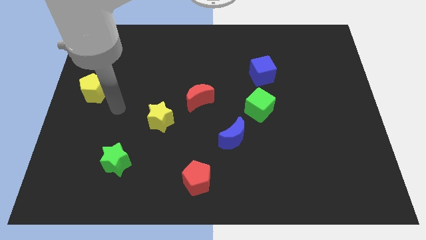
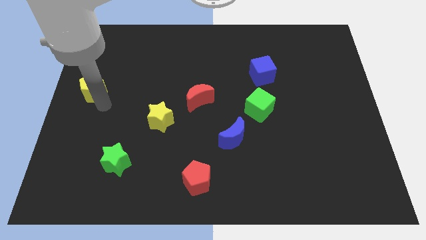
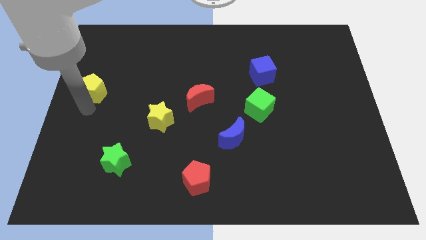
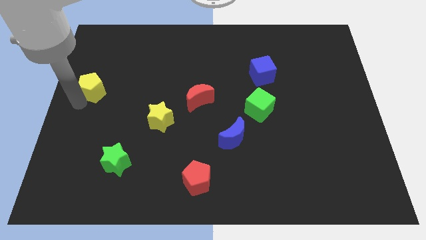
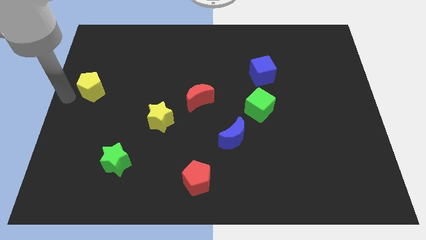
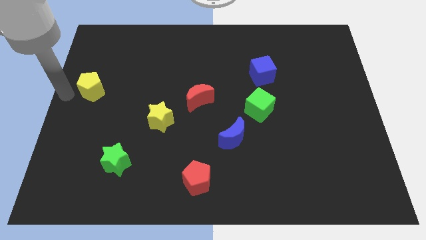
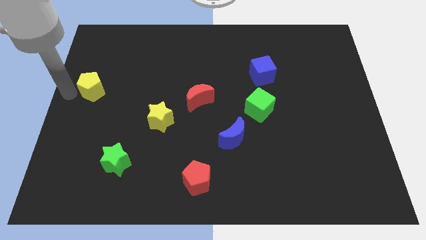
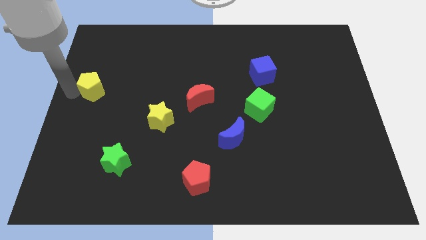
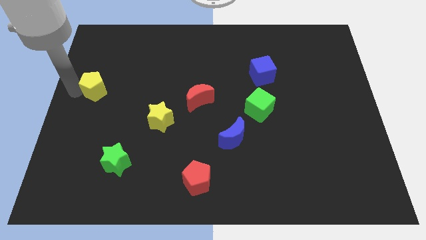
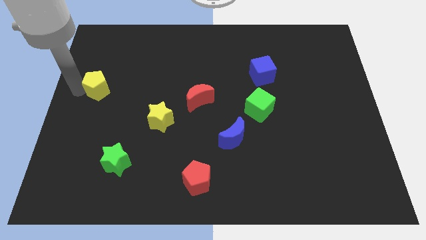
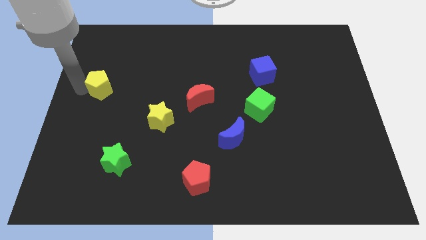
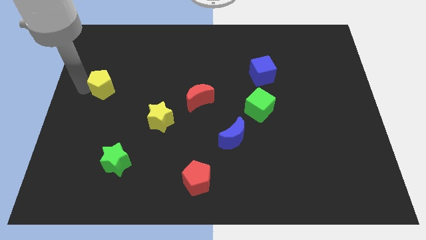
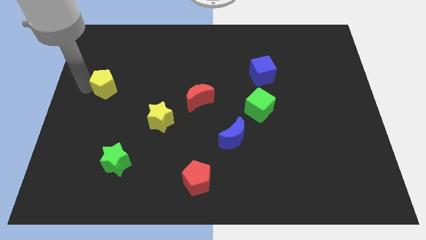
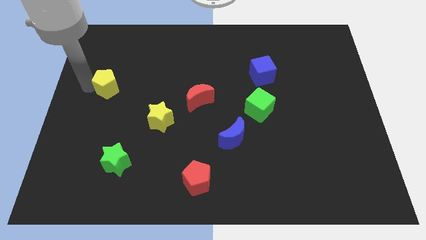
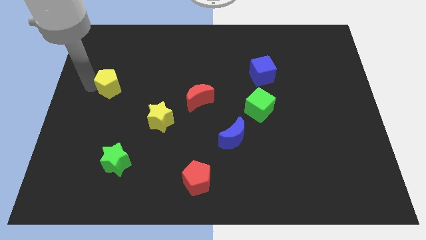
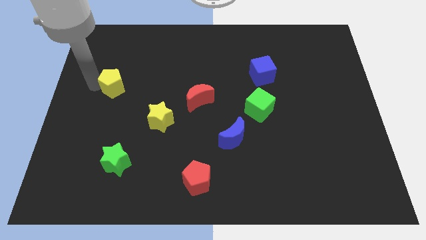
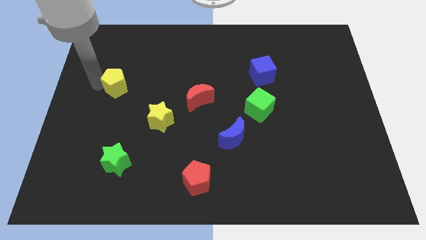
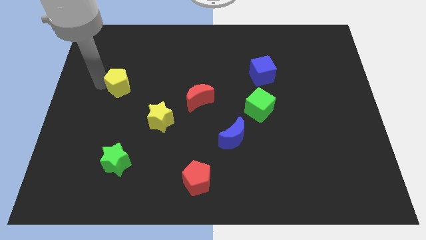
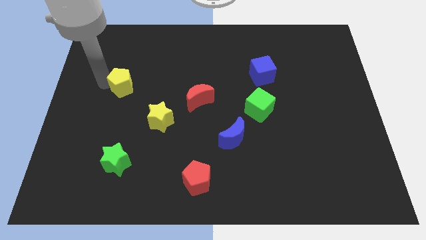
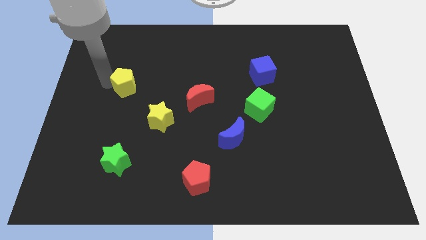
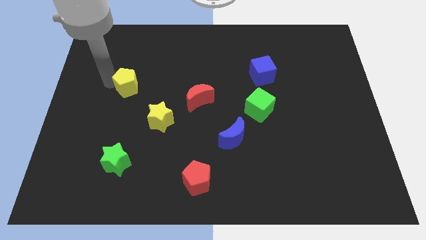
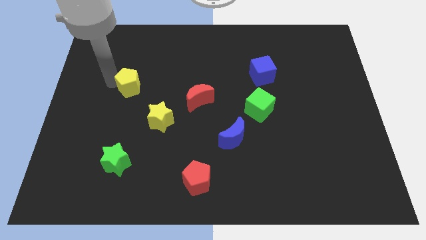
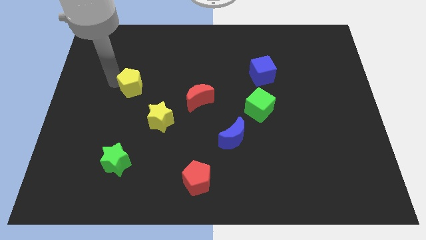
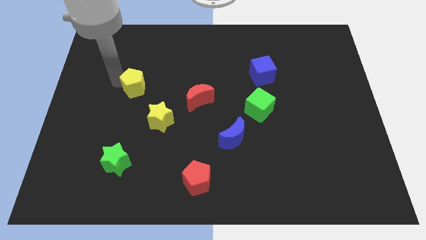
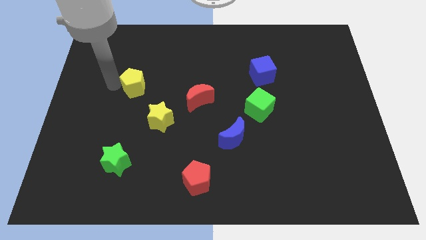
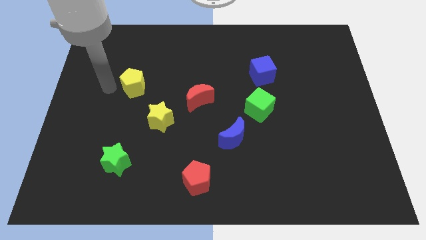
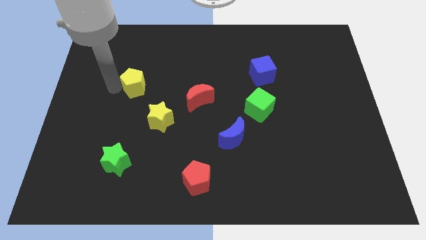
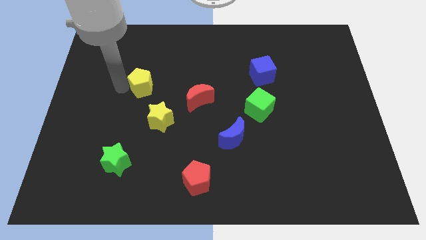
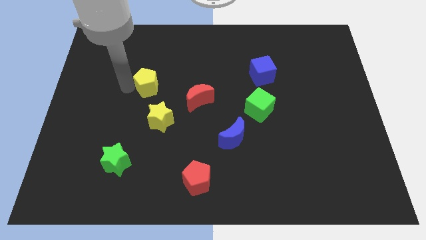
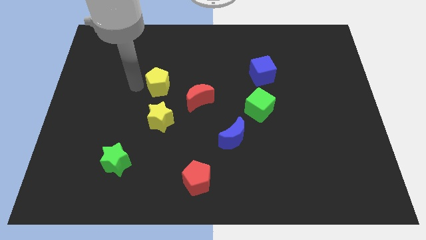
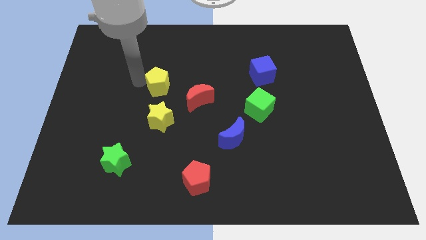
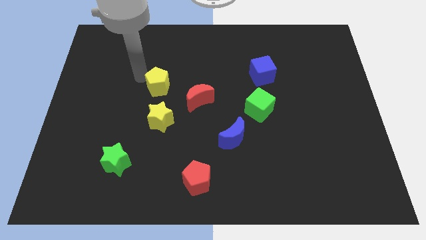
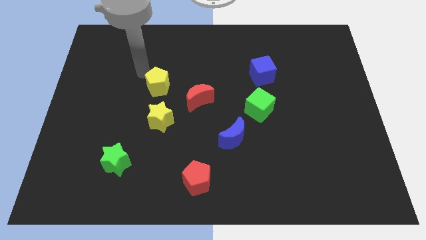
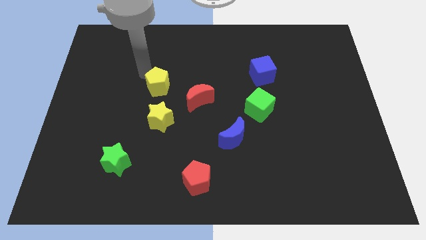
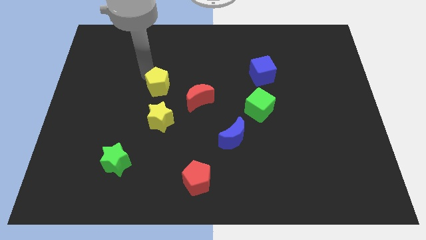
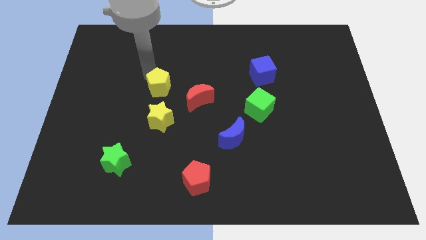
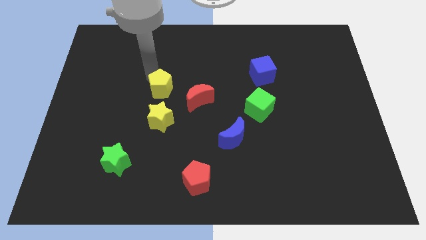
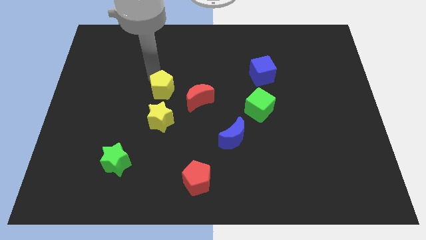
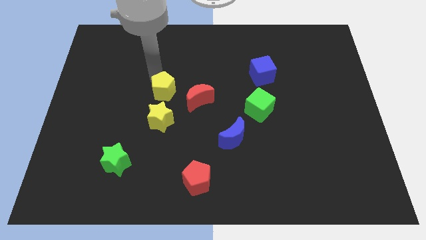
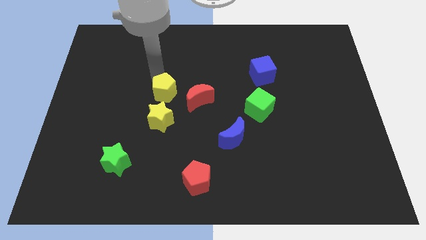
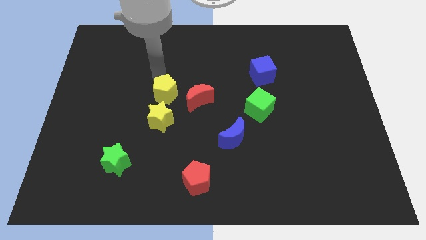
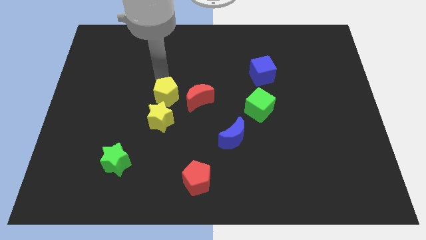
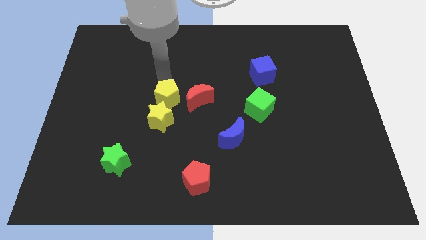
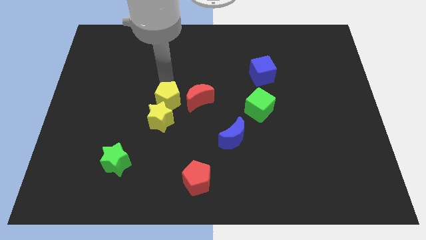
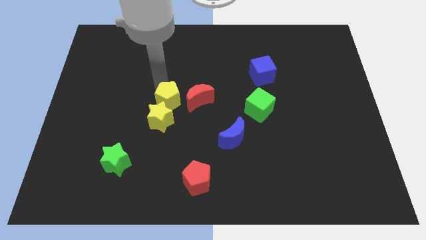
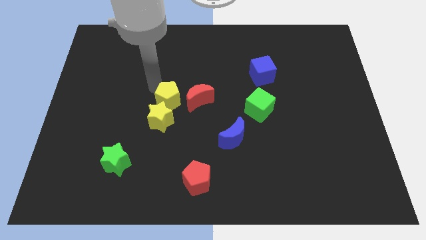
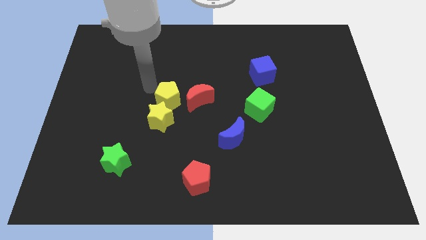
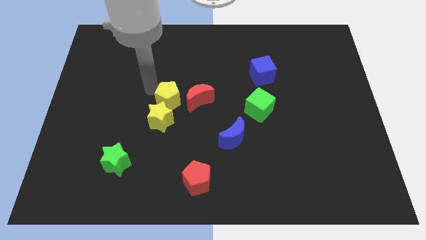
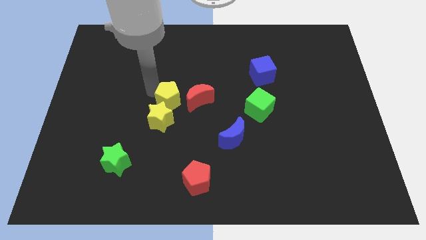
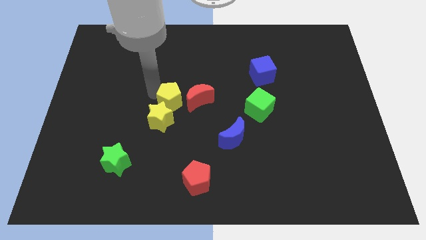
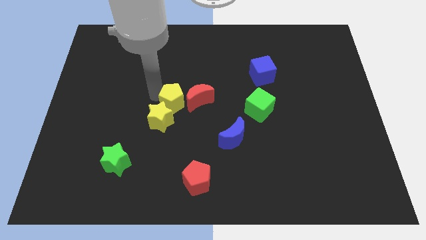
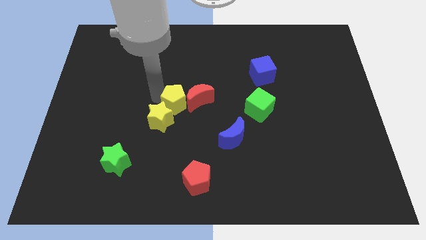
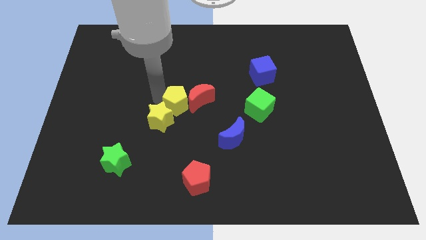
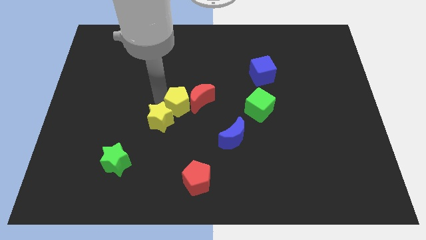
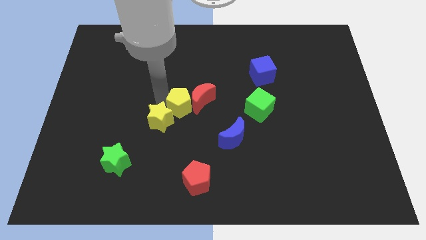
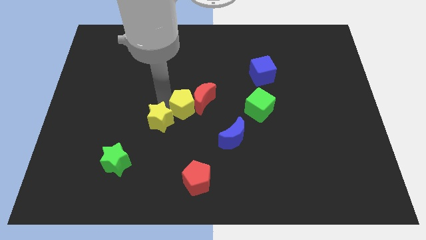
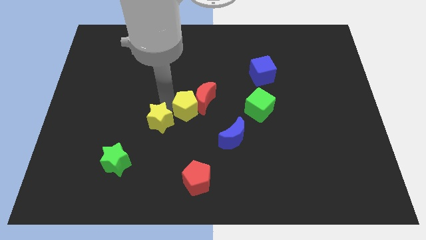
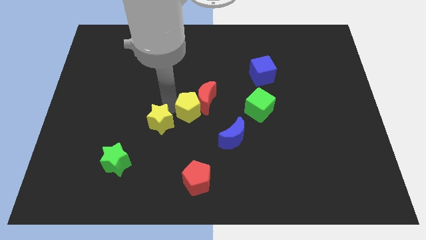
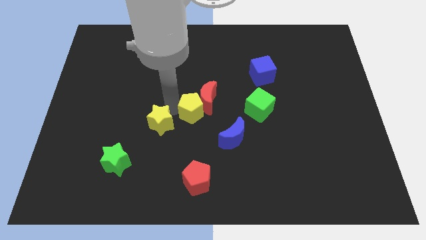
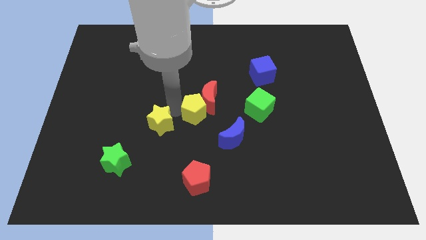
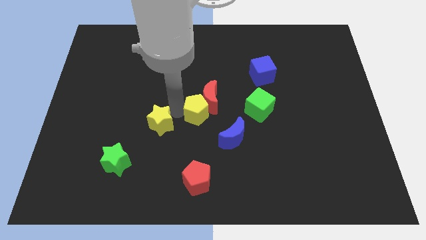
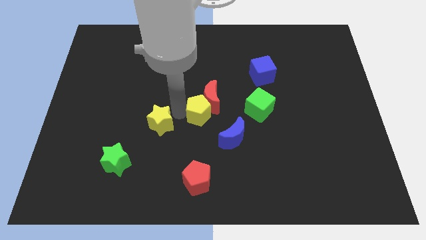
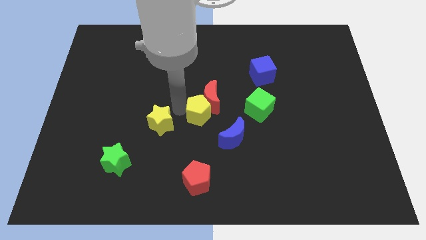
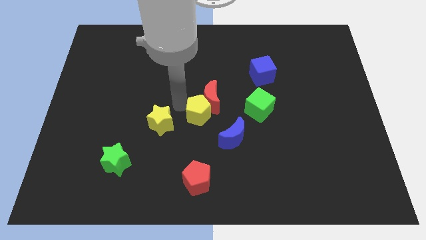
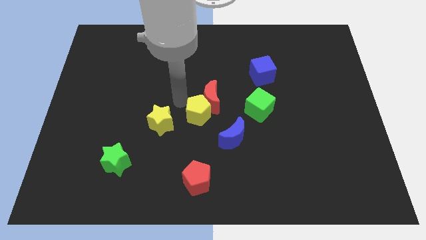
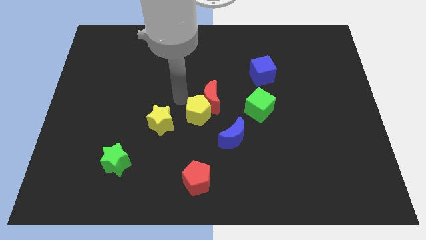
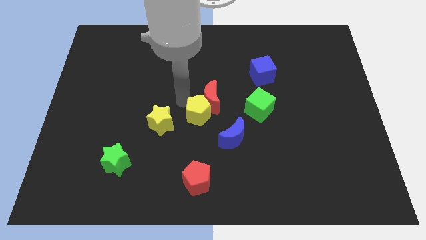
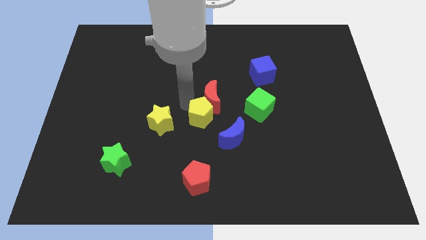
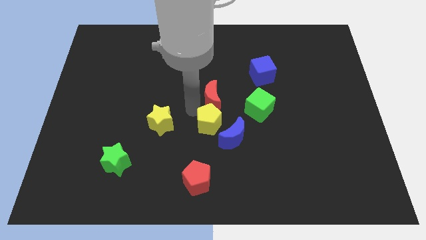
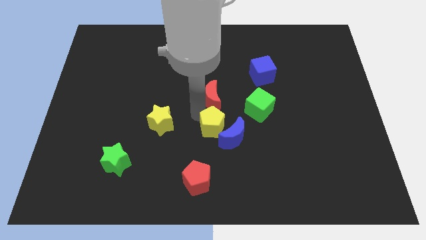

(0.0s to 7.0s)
slide the yellow pentagon to the blue moon

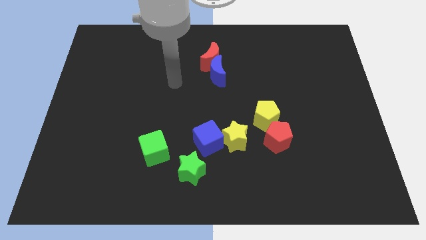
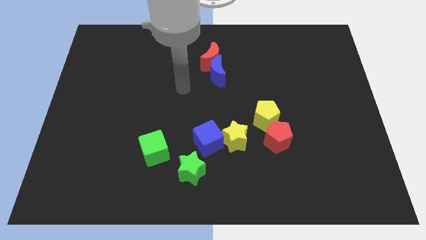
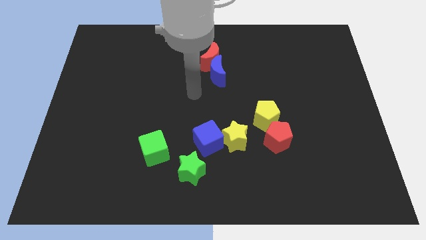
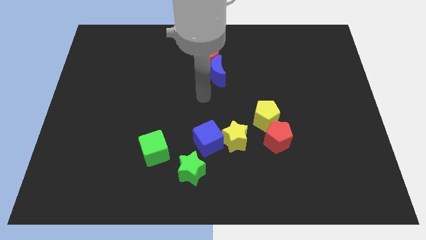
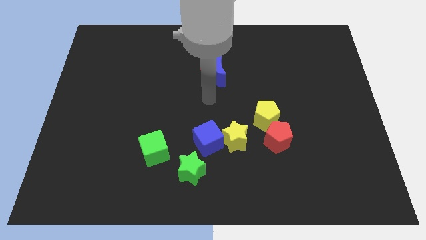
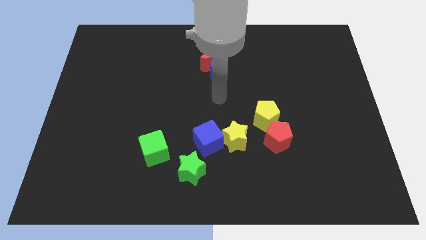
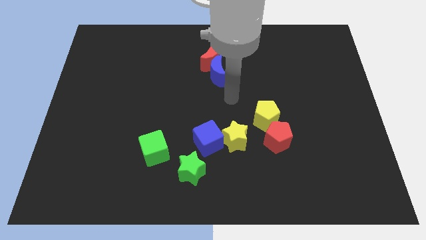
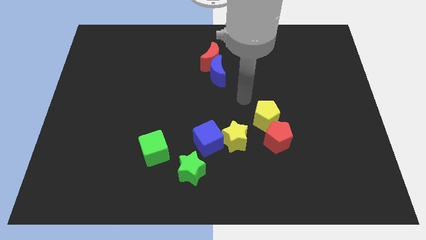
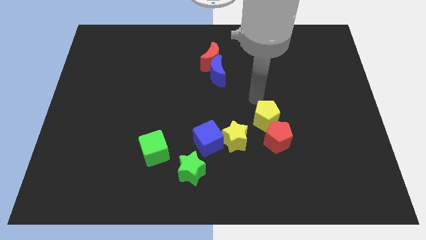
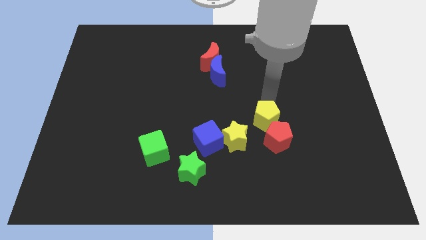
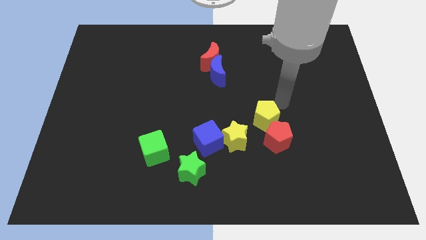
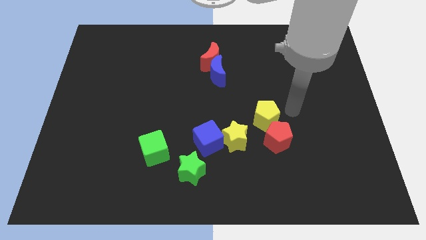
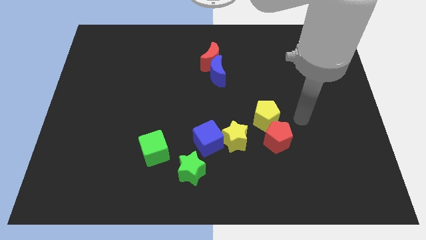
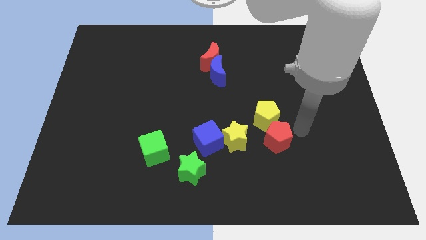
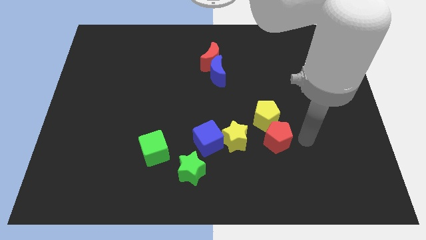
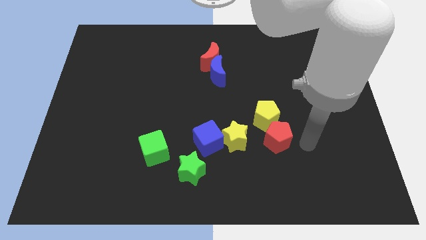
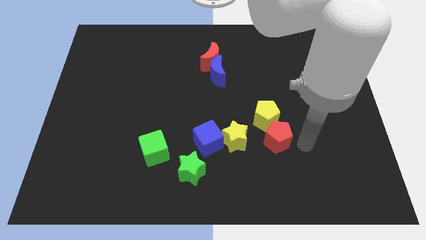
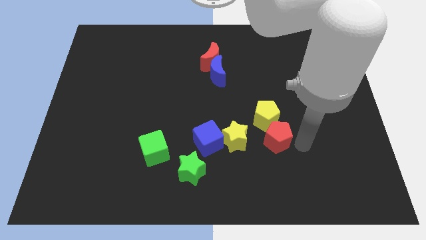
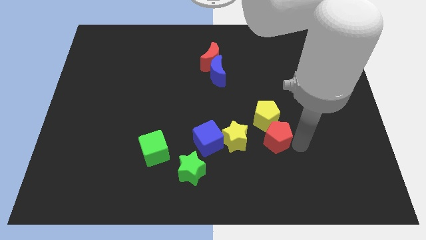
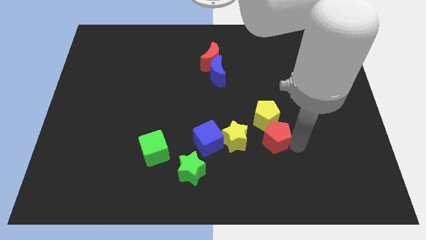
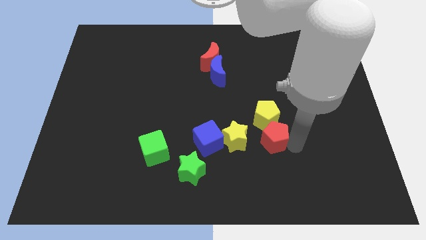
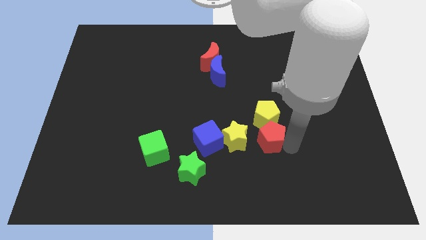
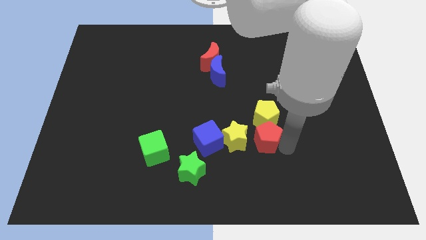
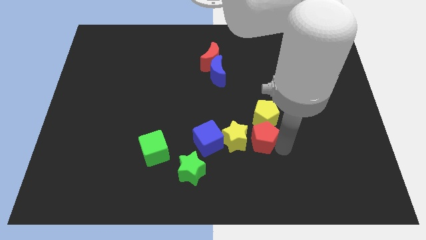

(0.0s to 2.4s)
move the red pentagon to the yellow star
